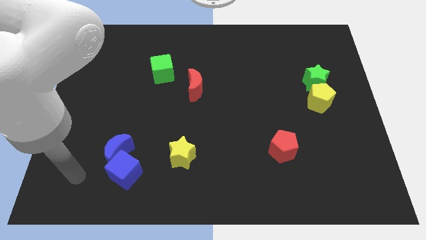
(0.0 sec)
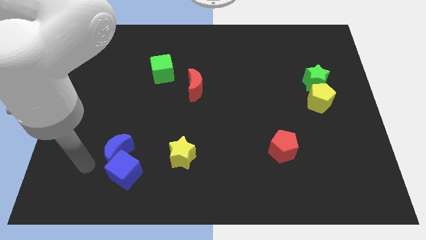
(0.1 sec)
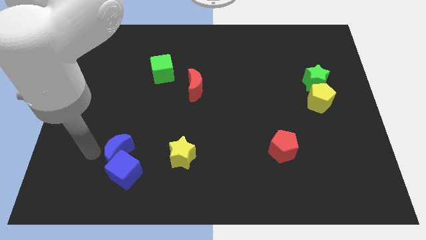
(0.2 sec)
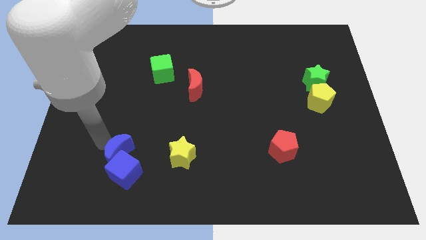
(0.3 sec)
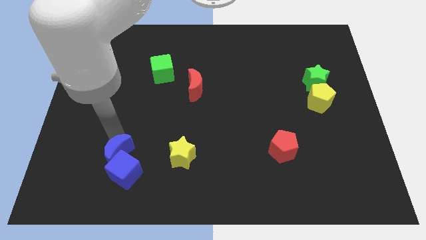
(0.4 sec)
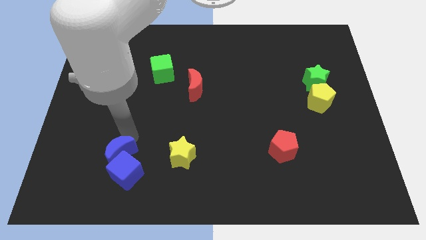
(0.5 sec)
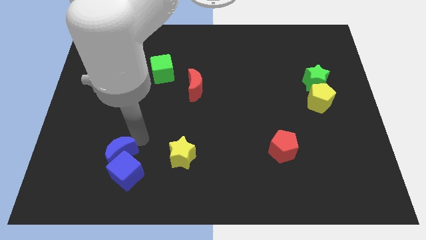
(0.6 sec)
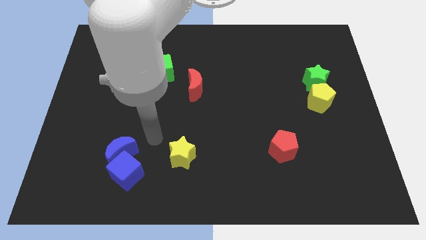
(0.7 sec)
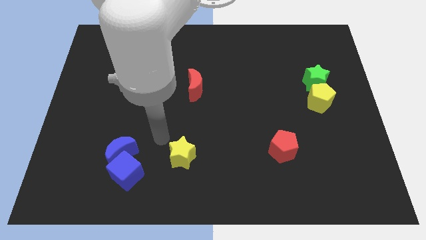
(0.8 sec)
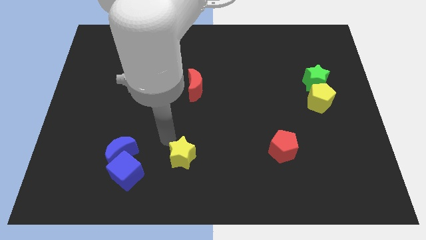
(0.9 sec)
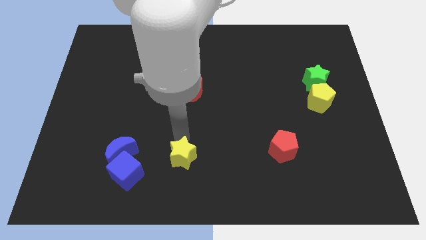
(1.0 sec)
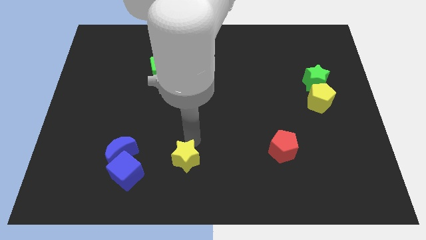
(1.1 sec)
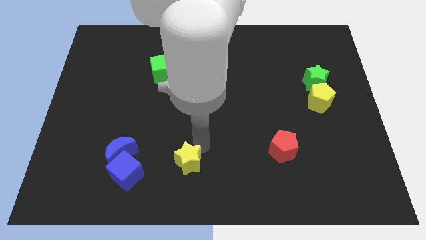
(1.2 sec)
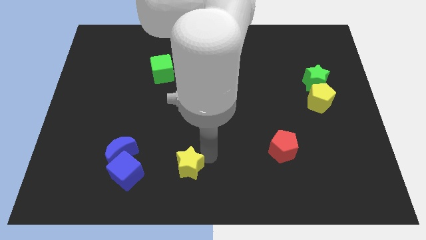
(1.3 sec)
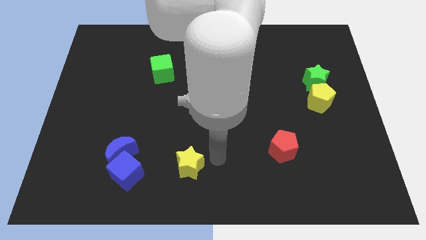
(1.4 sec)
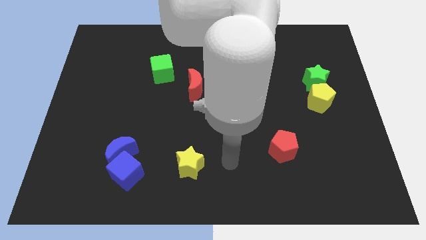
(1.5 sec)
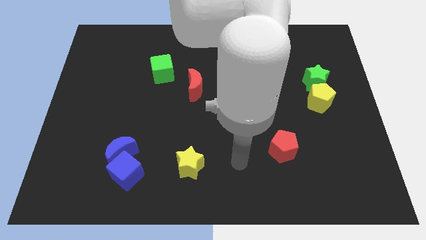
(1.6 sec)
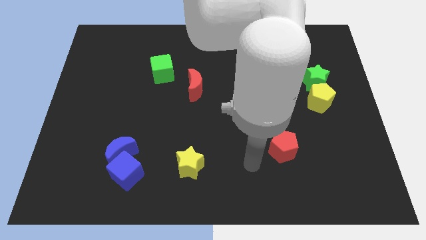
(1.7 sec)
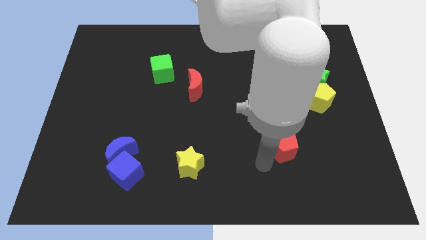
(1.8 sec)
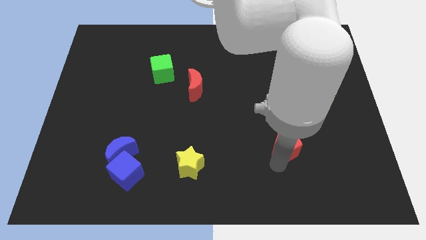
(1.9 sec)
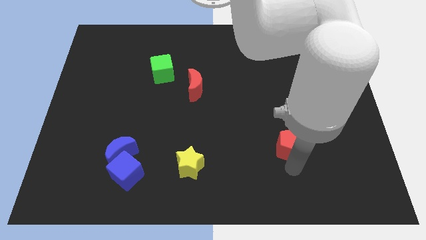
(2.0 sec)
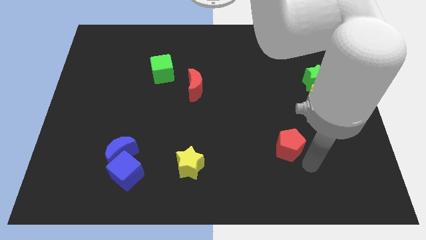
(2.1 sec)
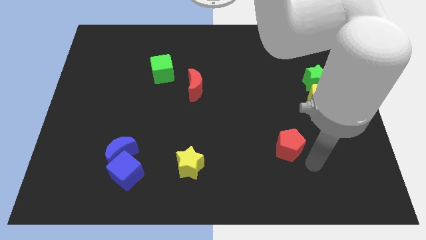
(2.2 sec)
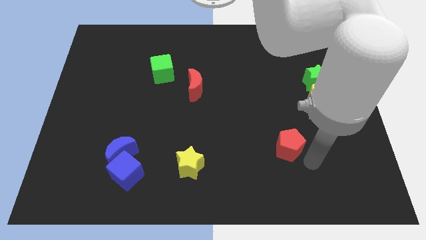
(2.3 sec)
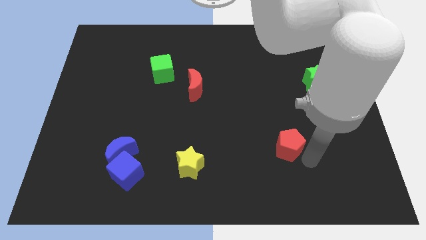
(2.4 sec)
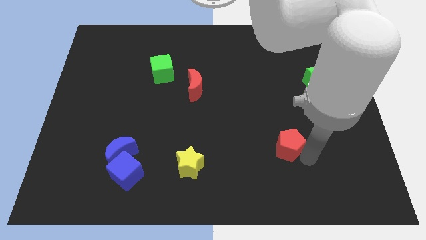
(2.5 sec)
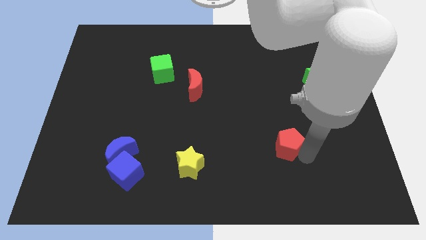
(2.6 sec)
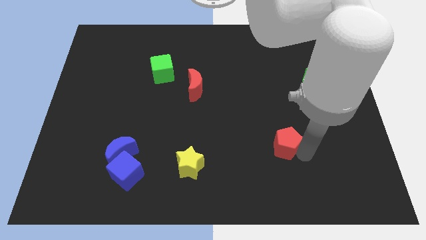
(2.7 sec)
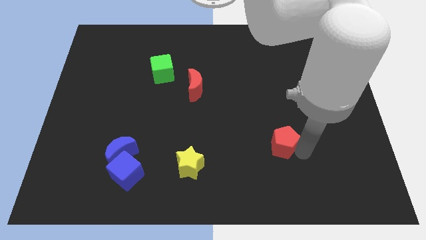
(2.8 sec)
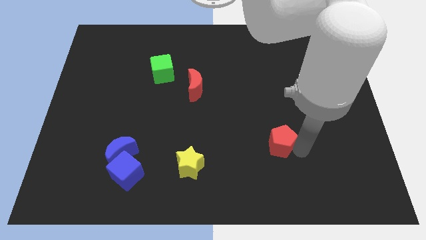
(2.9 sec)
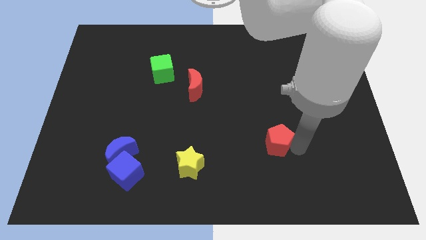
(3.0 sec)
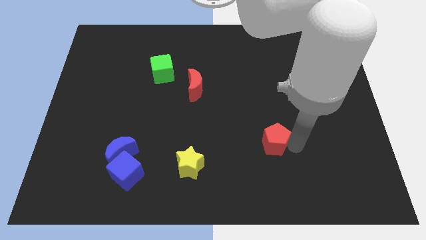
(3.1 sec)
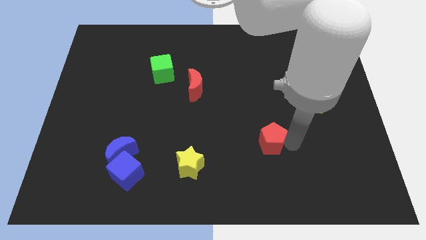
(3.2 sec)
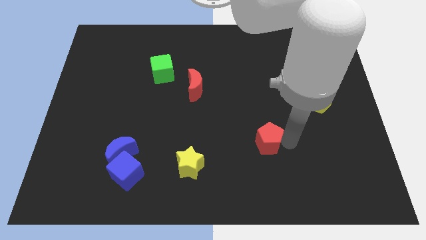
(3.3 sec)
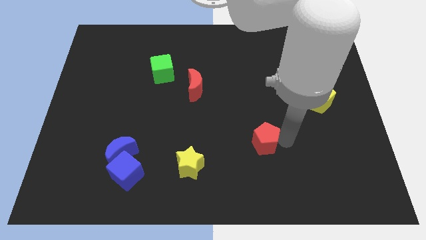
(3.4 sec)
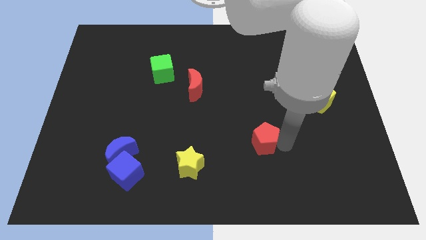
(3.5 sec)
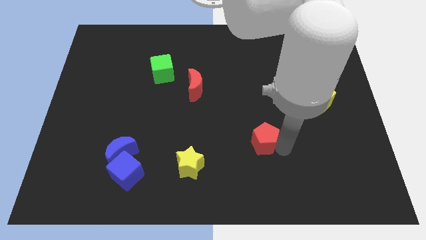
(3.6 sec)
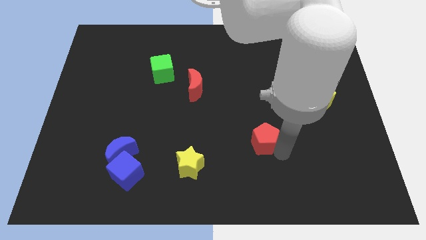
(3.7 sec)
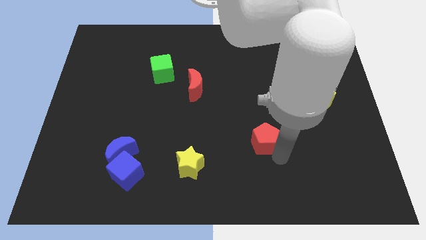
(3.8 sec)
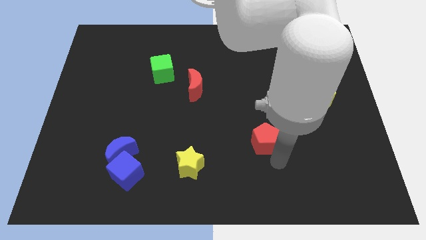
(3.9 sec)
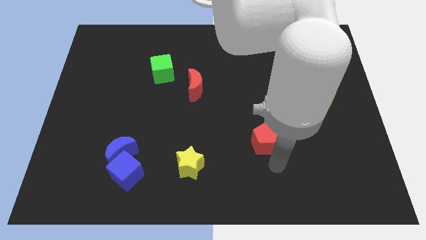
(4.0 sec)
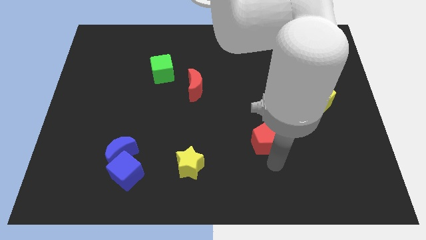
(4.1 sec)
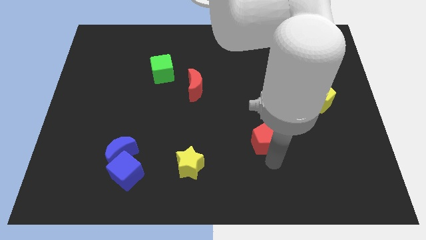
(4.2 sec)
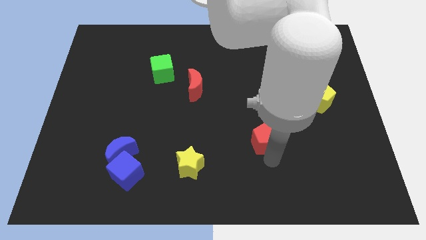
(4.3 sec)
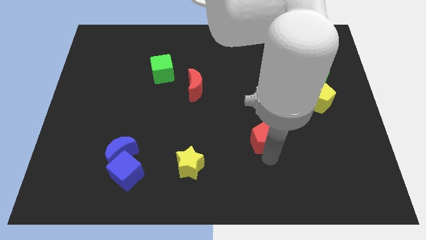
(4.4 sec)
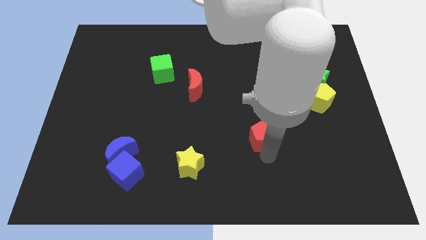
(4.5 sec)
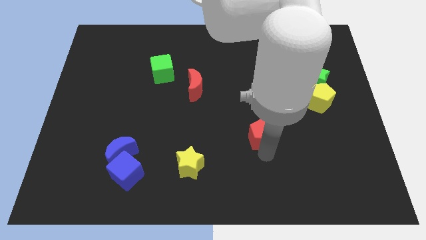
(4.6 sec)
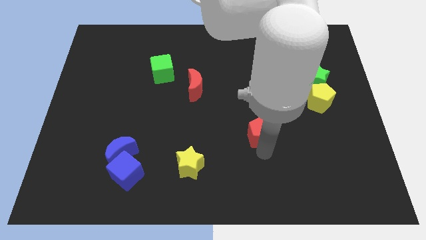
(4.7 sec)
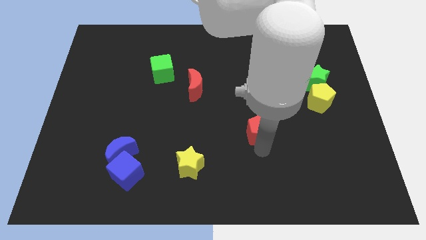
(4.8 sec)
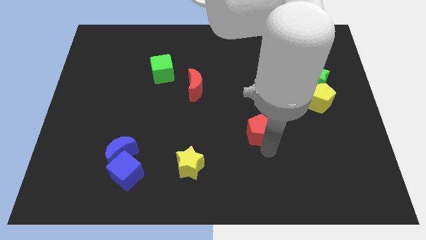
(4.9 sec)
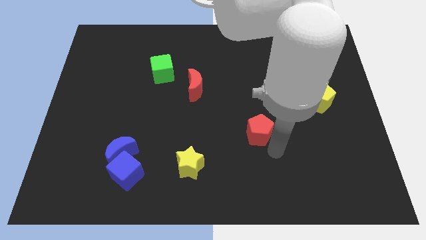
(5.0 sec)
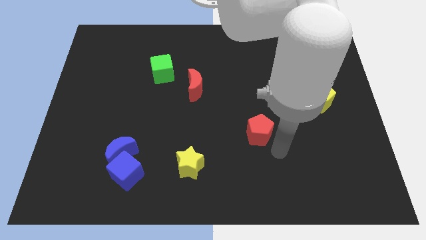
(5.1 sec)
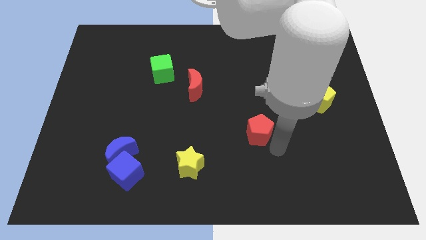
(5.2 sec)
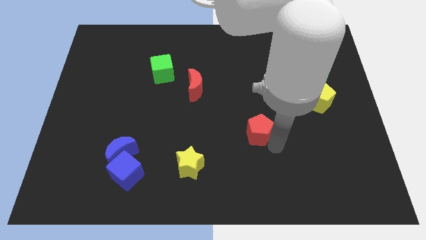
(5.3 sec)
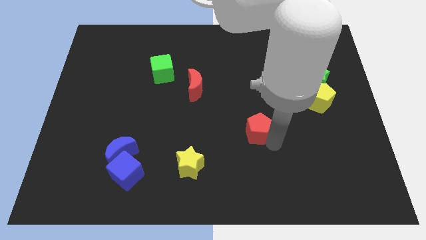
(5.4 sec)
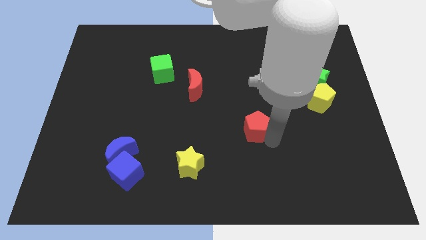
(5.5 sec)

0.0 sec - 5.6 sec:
push the red pentagon to the center of the board
